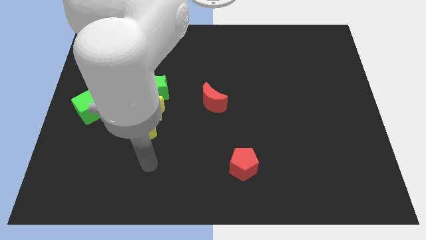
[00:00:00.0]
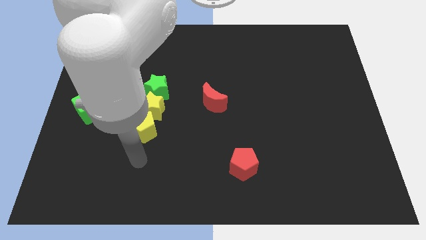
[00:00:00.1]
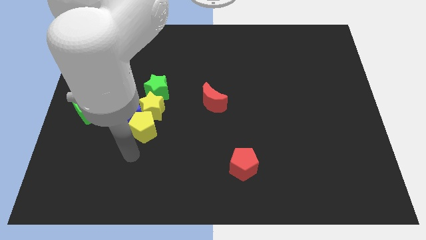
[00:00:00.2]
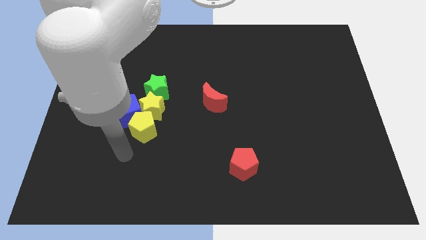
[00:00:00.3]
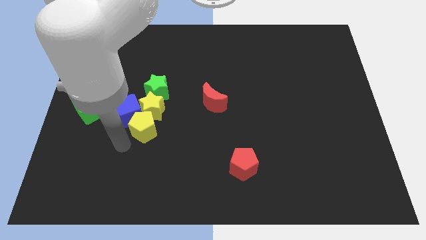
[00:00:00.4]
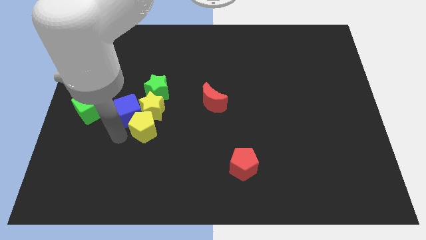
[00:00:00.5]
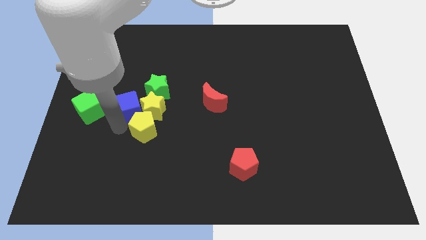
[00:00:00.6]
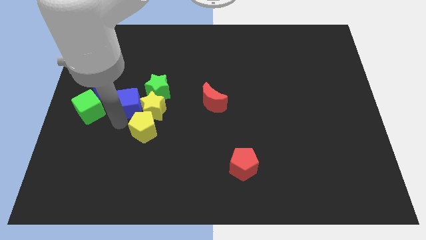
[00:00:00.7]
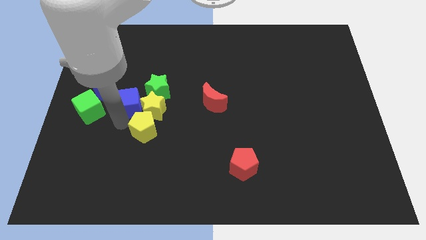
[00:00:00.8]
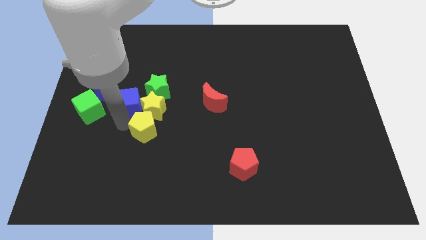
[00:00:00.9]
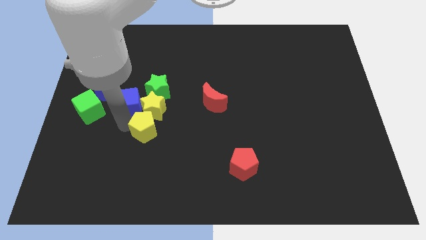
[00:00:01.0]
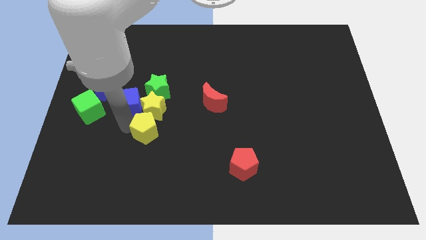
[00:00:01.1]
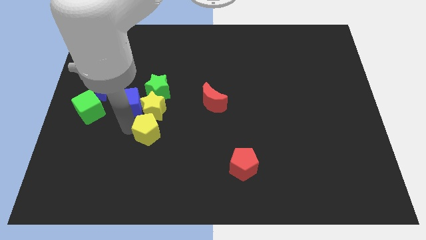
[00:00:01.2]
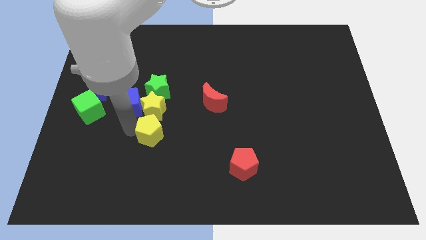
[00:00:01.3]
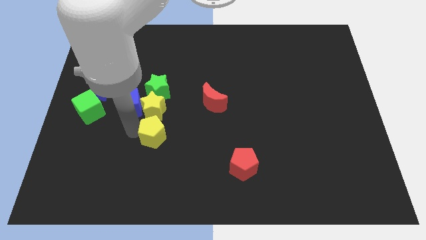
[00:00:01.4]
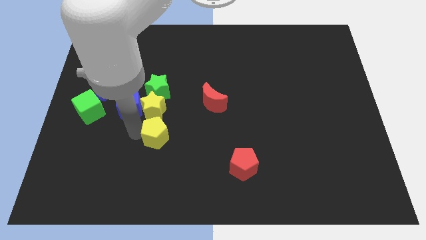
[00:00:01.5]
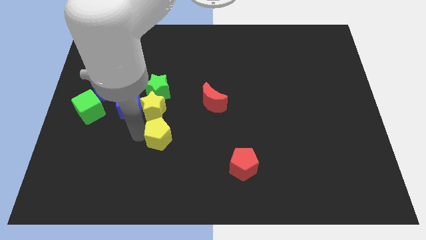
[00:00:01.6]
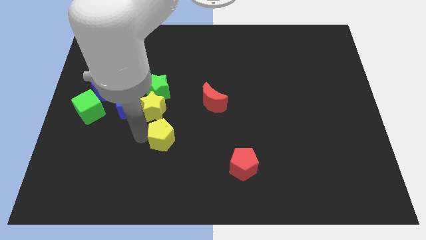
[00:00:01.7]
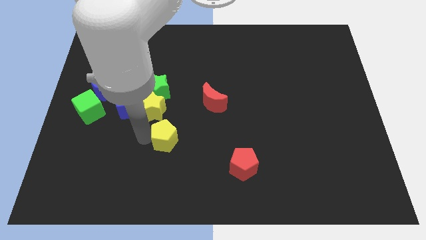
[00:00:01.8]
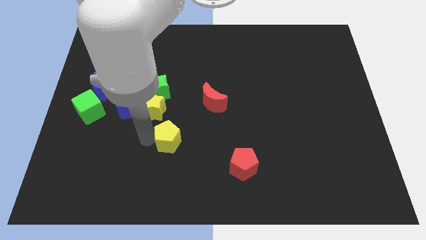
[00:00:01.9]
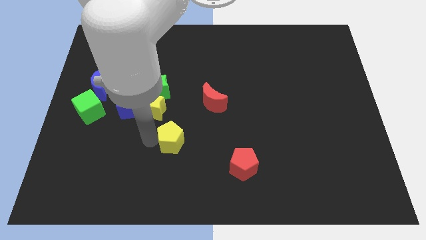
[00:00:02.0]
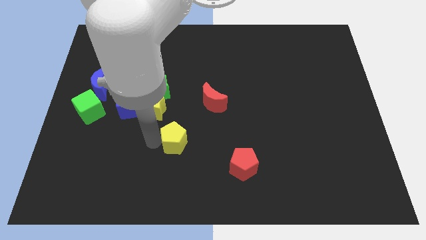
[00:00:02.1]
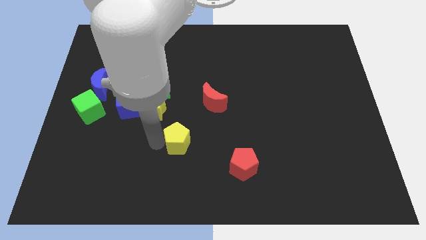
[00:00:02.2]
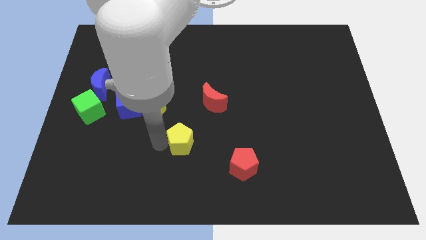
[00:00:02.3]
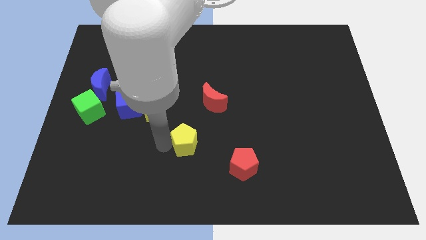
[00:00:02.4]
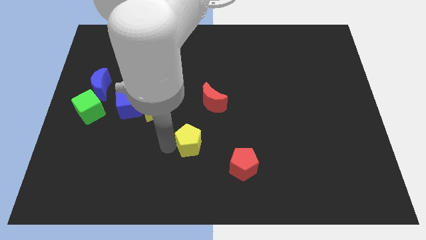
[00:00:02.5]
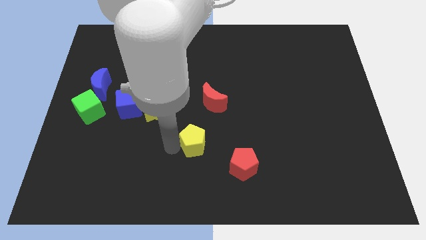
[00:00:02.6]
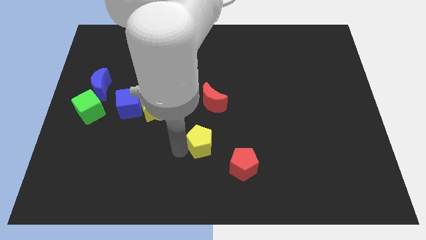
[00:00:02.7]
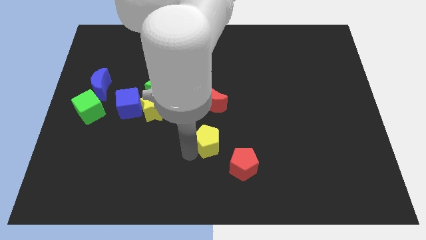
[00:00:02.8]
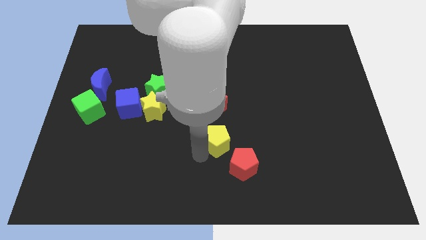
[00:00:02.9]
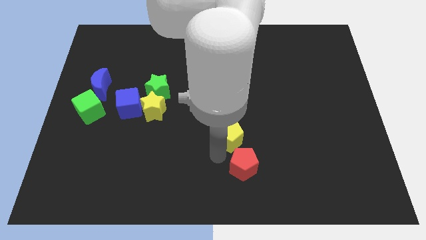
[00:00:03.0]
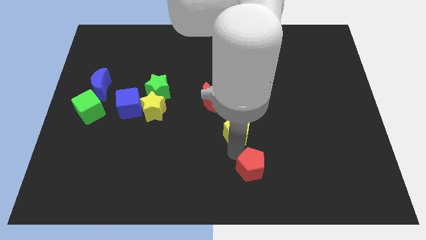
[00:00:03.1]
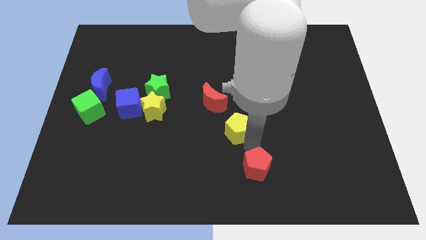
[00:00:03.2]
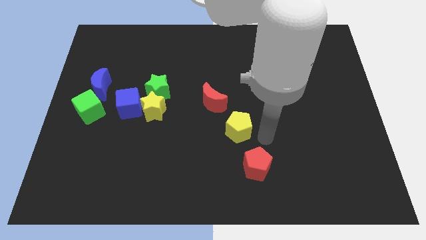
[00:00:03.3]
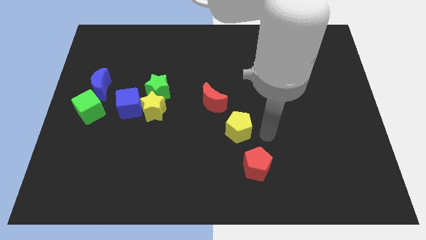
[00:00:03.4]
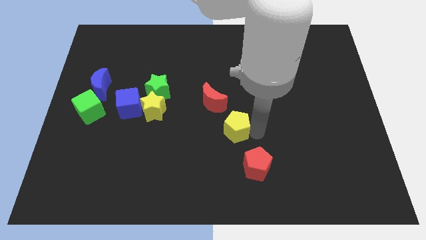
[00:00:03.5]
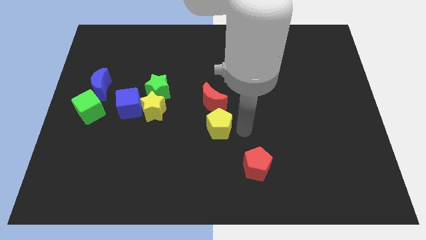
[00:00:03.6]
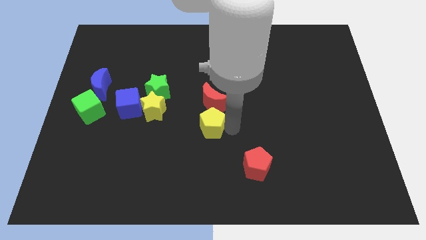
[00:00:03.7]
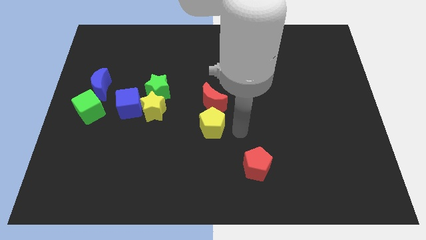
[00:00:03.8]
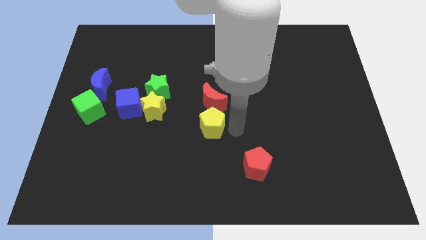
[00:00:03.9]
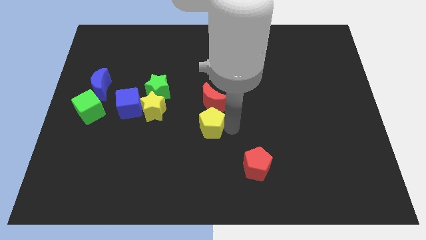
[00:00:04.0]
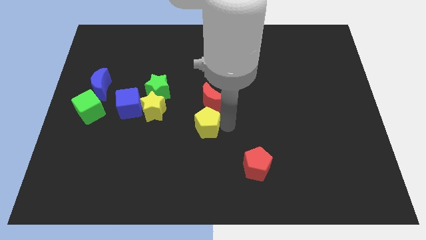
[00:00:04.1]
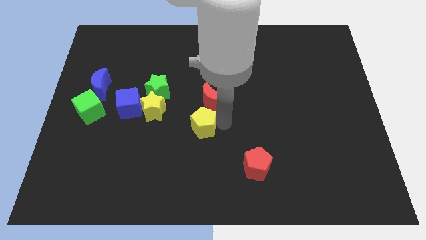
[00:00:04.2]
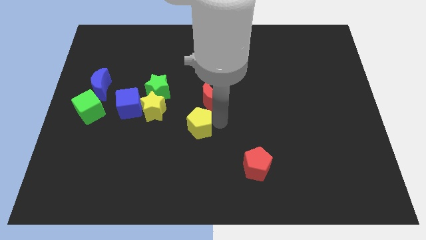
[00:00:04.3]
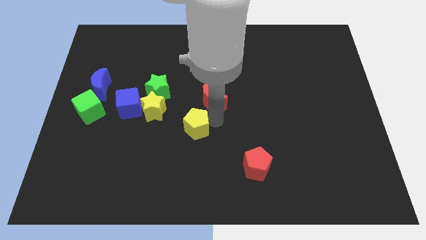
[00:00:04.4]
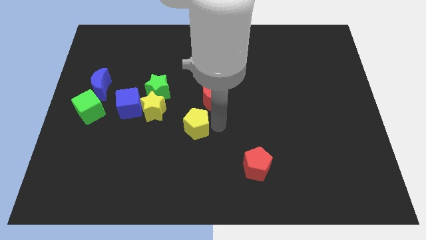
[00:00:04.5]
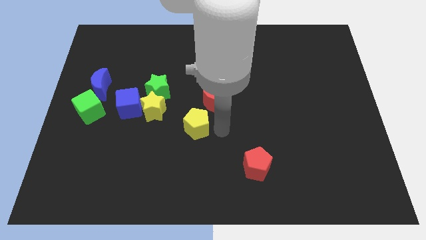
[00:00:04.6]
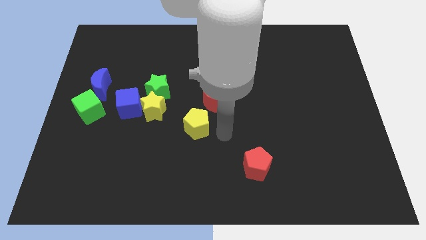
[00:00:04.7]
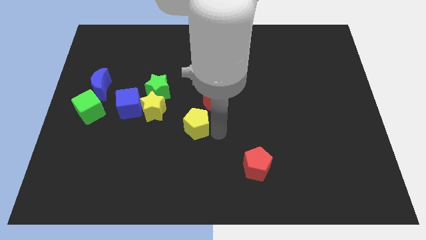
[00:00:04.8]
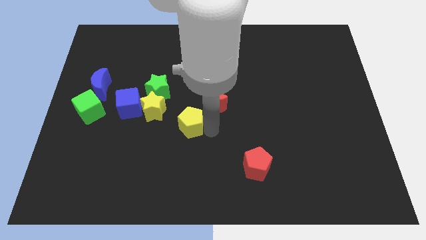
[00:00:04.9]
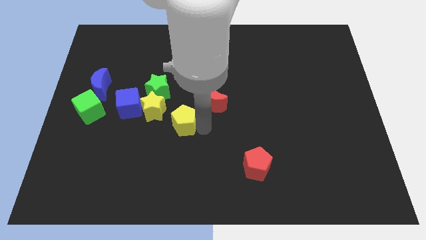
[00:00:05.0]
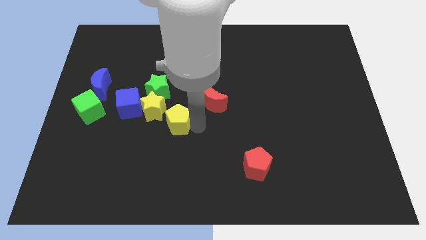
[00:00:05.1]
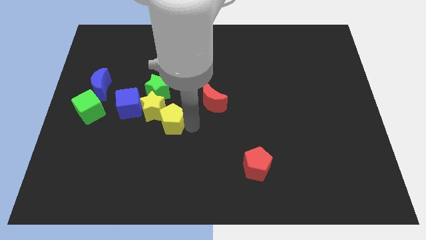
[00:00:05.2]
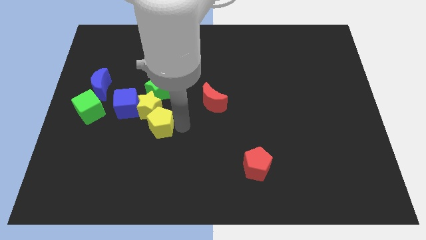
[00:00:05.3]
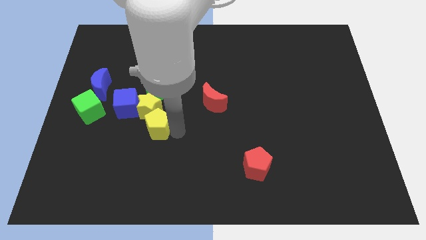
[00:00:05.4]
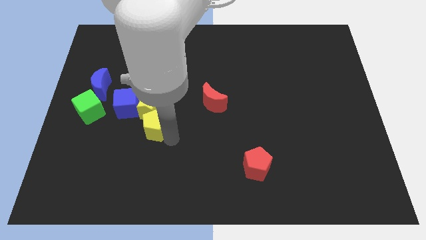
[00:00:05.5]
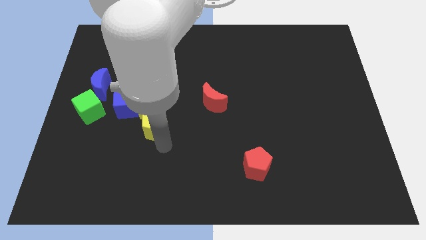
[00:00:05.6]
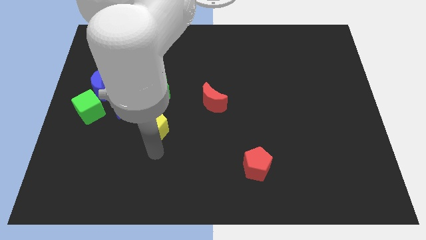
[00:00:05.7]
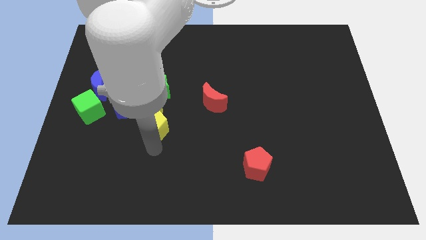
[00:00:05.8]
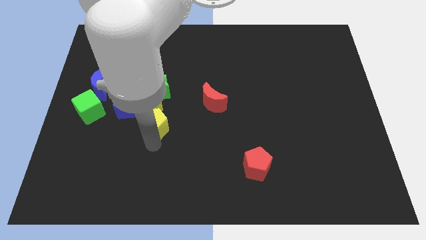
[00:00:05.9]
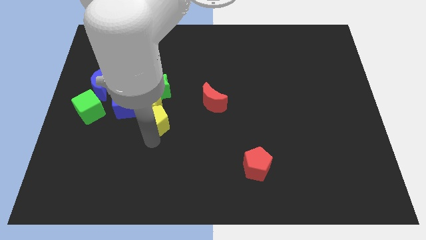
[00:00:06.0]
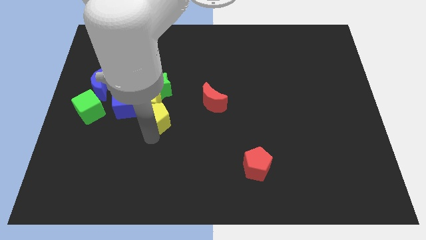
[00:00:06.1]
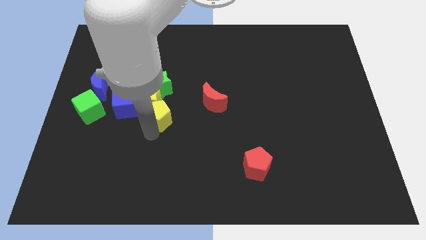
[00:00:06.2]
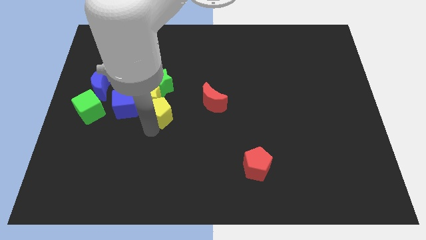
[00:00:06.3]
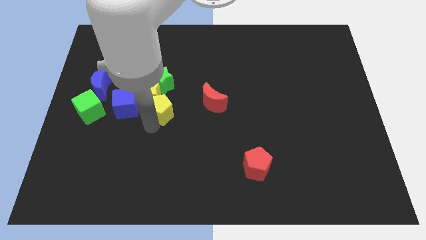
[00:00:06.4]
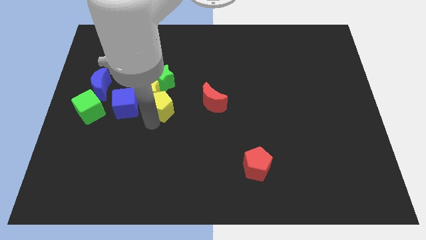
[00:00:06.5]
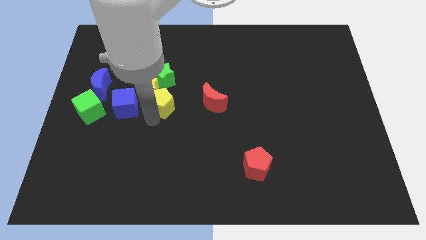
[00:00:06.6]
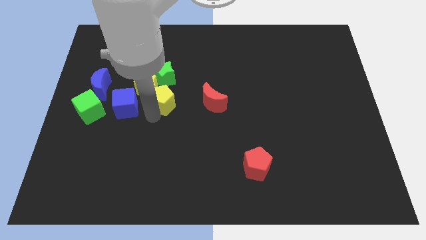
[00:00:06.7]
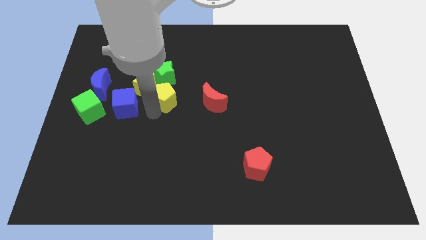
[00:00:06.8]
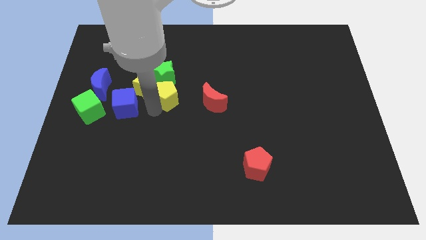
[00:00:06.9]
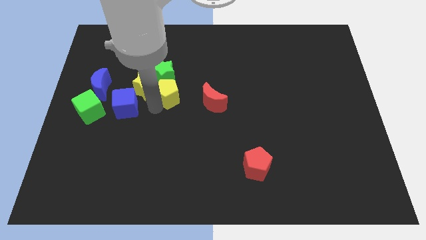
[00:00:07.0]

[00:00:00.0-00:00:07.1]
move the yellow pentagon towards the green star

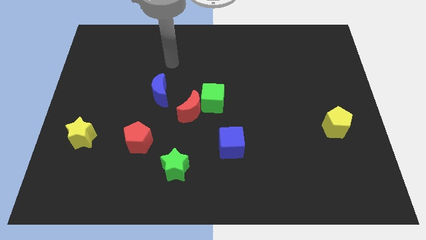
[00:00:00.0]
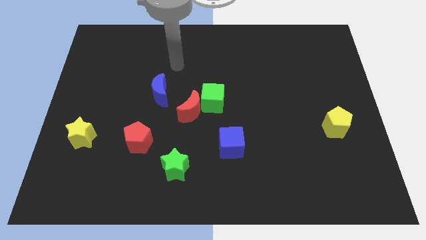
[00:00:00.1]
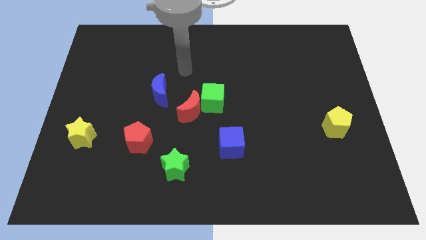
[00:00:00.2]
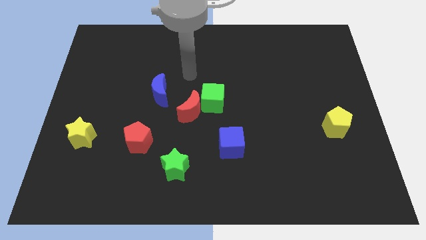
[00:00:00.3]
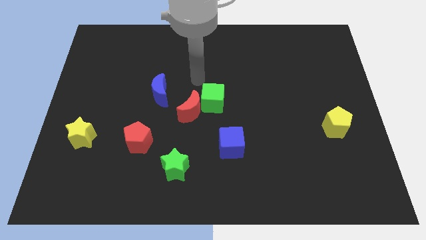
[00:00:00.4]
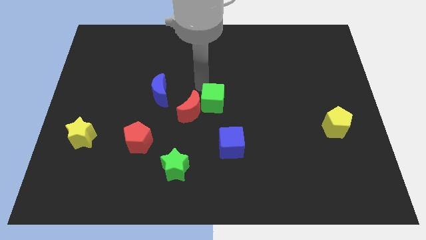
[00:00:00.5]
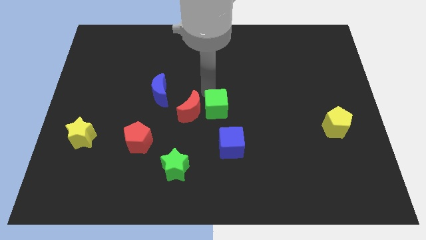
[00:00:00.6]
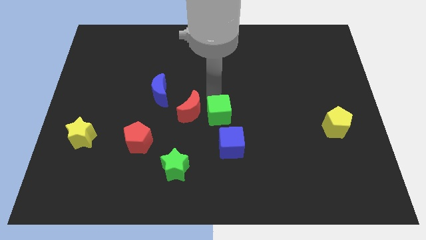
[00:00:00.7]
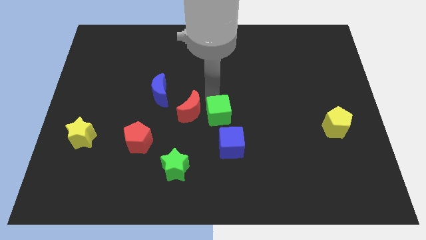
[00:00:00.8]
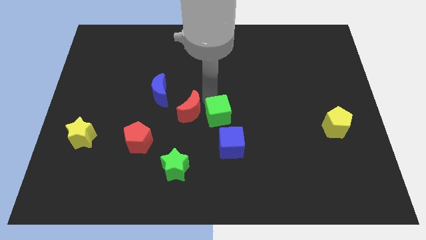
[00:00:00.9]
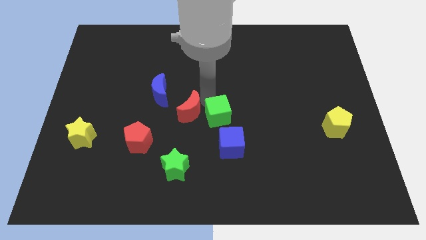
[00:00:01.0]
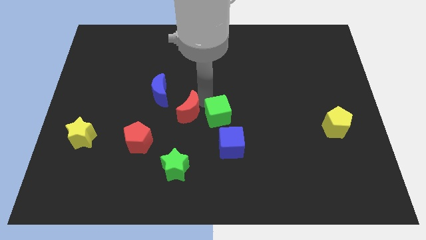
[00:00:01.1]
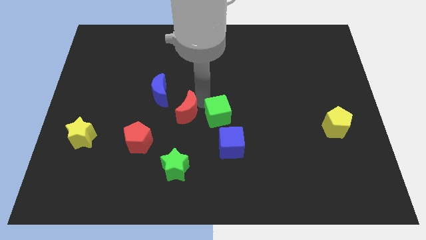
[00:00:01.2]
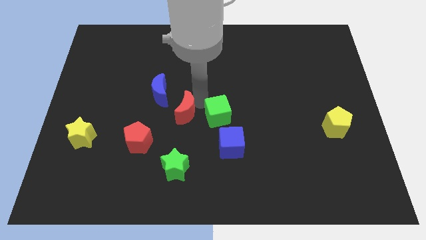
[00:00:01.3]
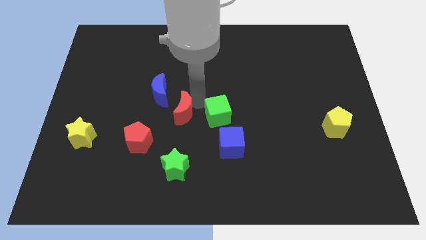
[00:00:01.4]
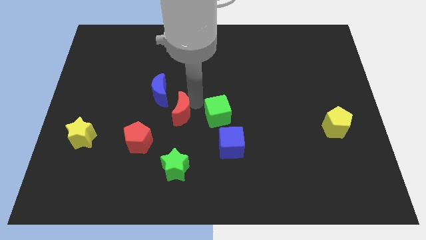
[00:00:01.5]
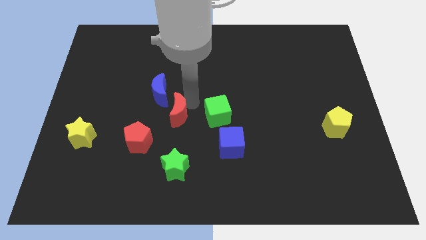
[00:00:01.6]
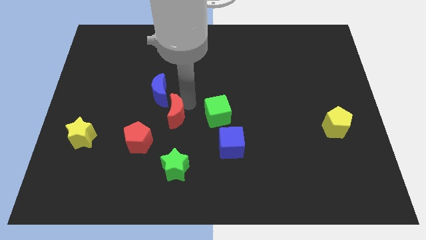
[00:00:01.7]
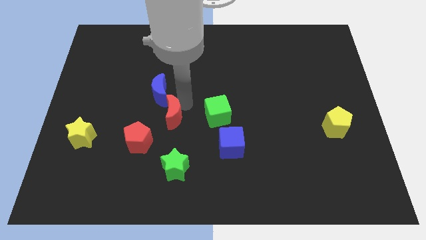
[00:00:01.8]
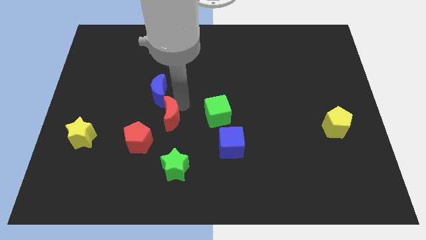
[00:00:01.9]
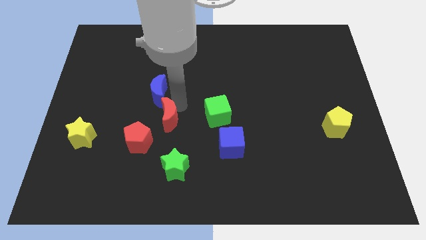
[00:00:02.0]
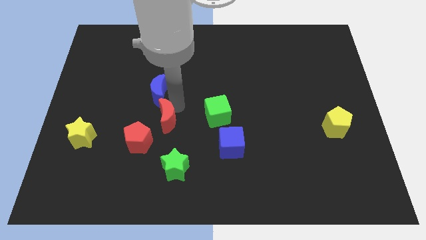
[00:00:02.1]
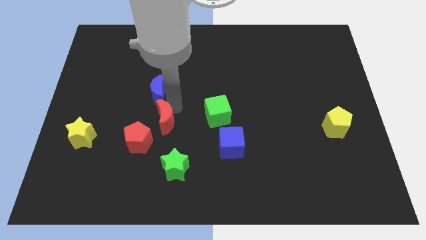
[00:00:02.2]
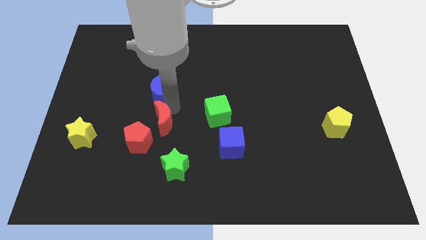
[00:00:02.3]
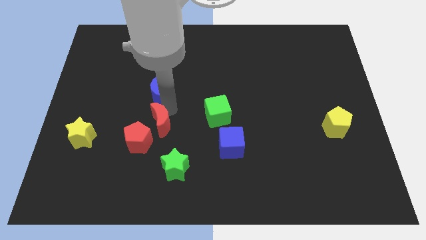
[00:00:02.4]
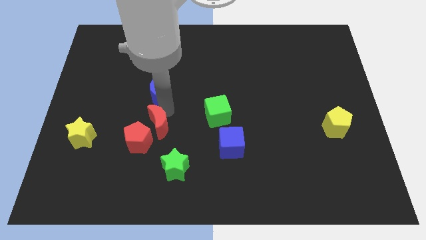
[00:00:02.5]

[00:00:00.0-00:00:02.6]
slide the red moon towards the red pentagon
